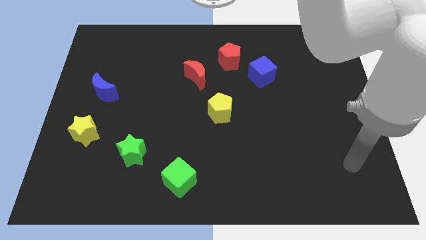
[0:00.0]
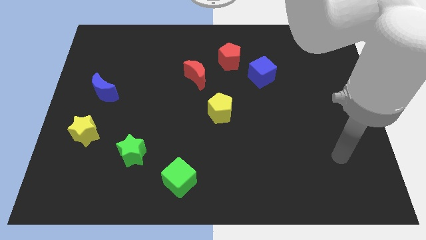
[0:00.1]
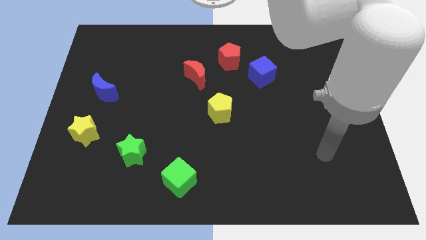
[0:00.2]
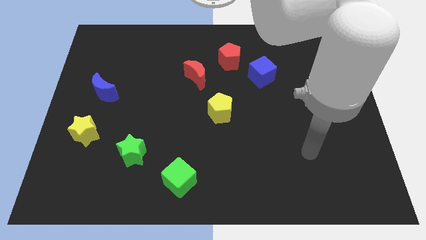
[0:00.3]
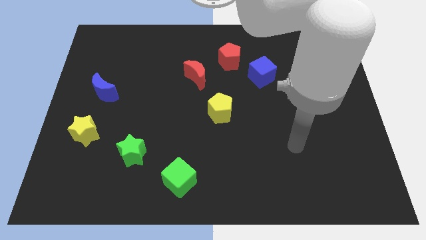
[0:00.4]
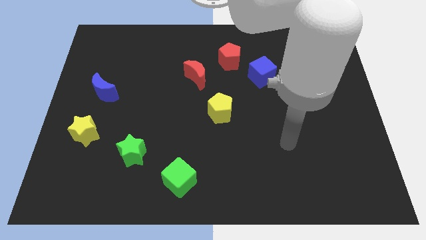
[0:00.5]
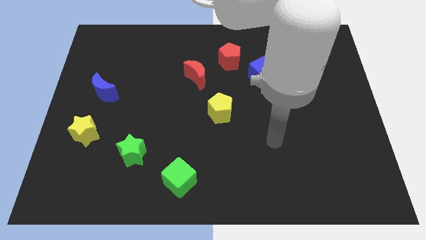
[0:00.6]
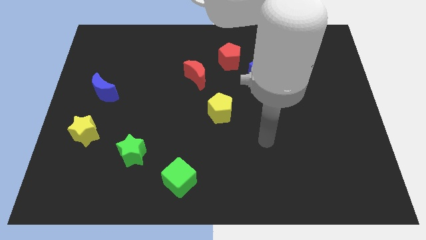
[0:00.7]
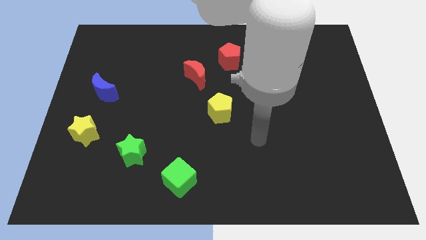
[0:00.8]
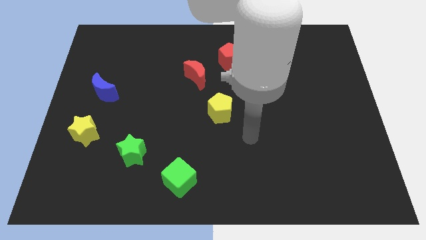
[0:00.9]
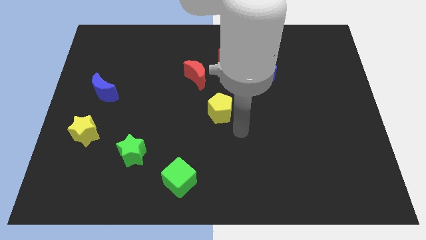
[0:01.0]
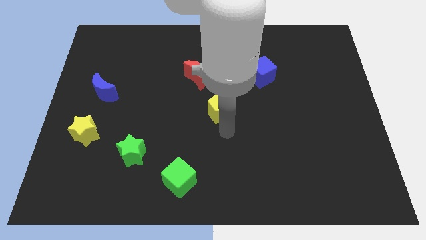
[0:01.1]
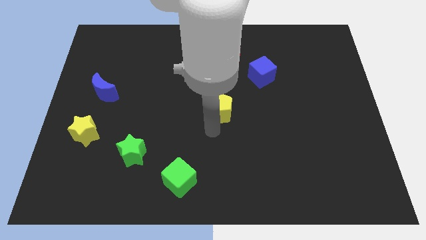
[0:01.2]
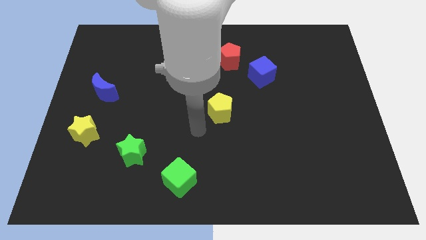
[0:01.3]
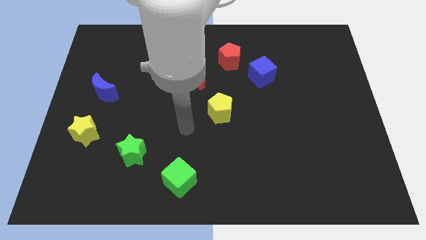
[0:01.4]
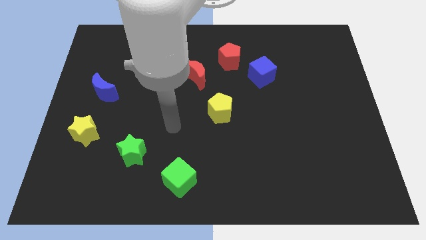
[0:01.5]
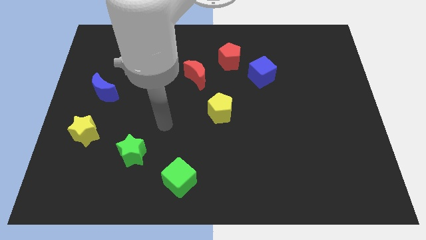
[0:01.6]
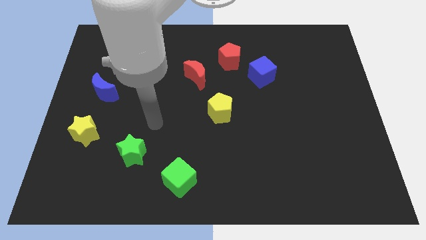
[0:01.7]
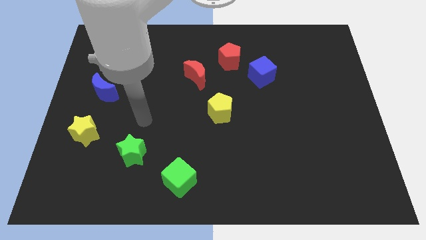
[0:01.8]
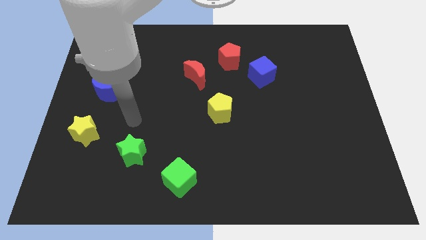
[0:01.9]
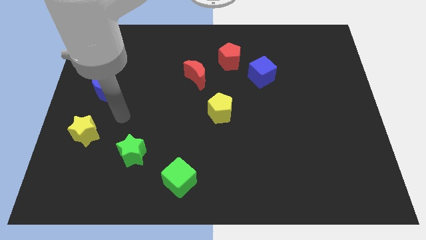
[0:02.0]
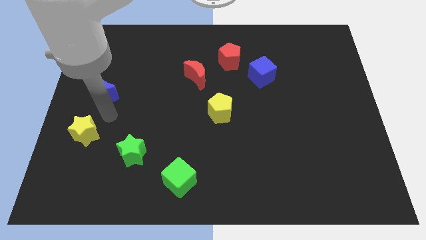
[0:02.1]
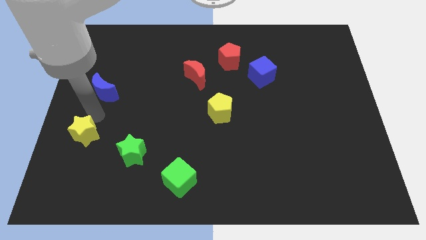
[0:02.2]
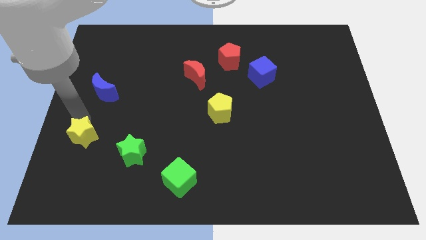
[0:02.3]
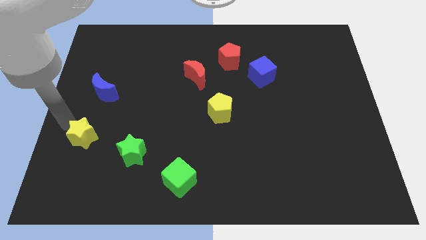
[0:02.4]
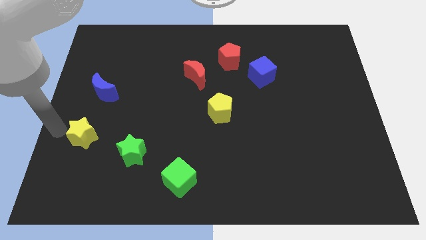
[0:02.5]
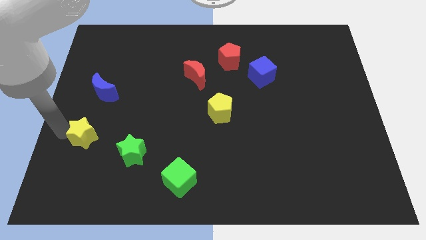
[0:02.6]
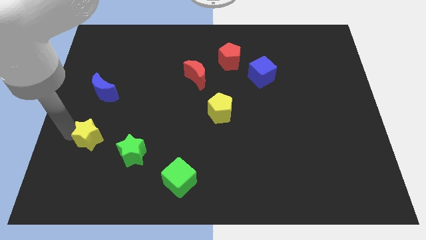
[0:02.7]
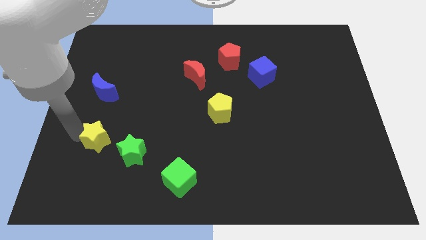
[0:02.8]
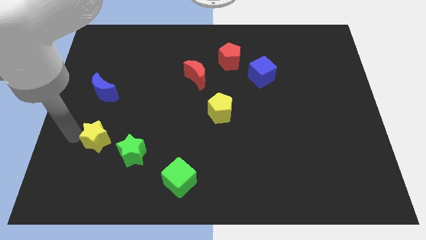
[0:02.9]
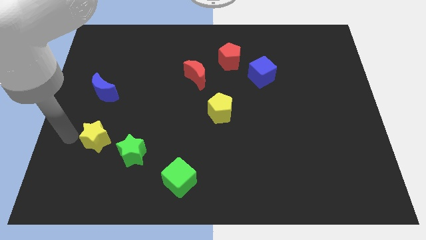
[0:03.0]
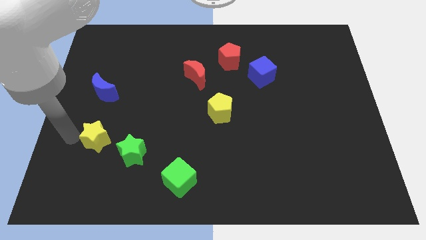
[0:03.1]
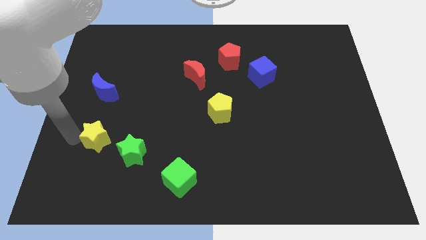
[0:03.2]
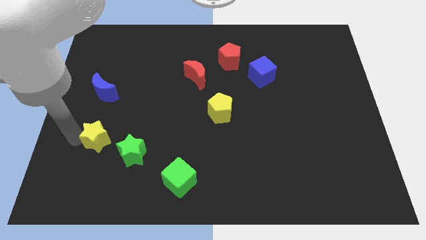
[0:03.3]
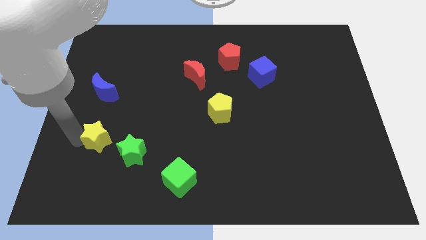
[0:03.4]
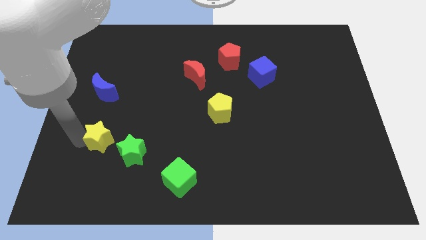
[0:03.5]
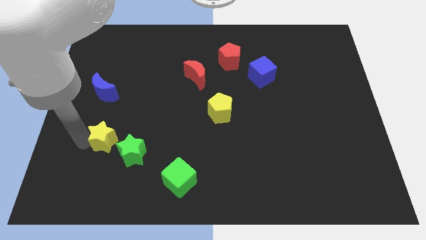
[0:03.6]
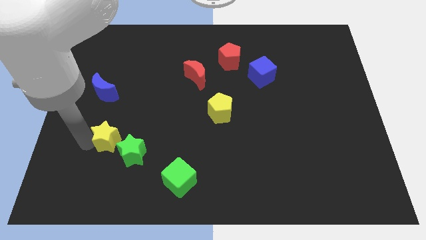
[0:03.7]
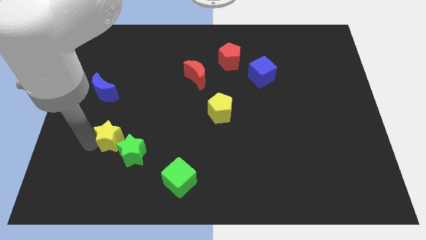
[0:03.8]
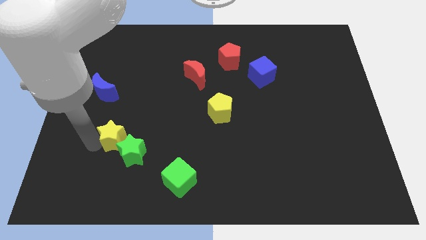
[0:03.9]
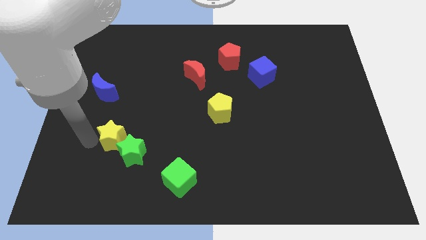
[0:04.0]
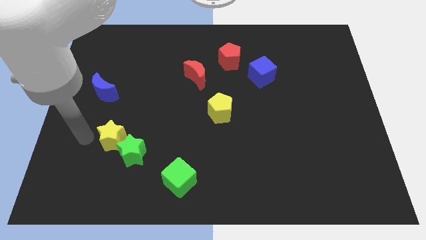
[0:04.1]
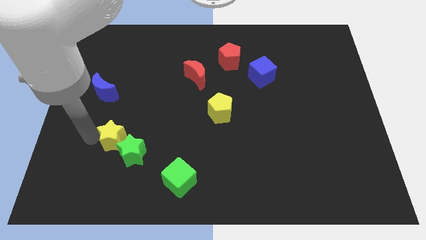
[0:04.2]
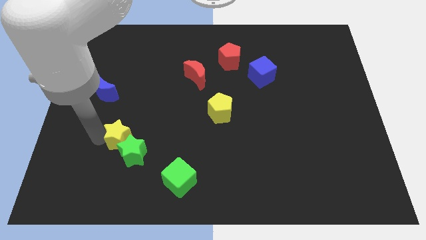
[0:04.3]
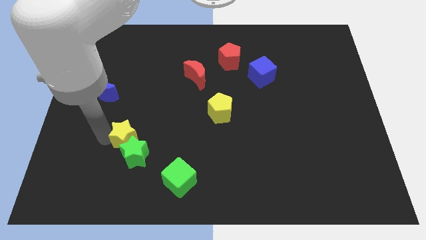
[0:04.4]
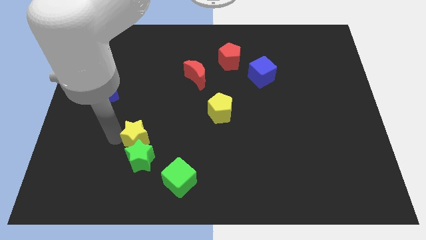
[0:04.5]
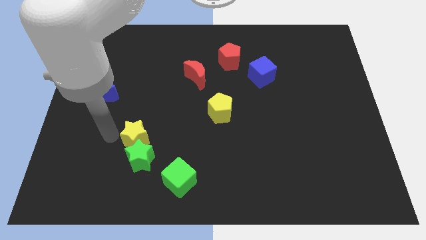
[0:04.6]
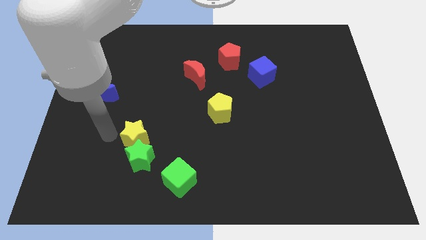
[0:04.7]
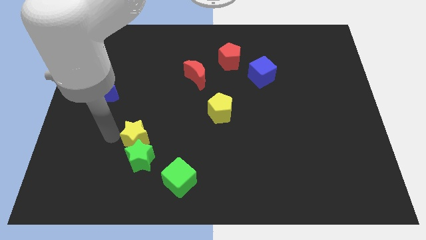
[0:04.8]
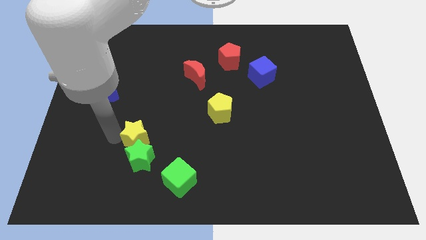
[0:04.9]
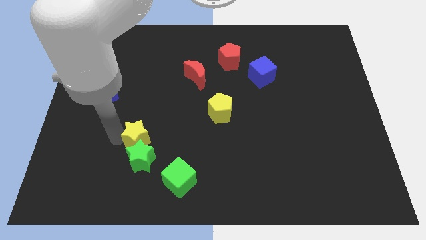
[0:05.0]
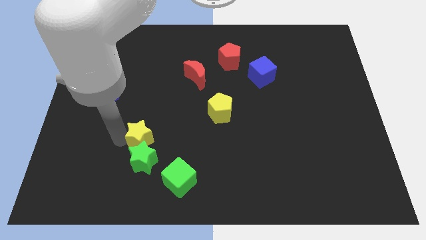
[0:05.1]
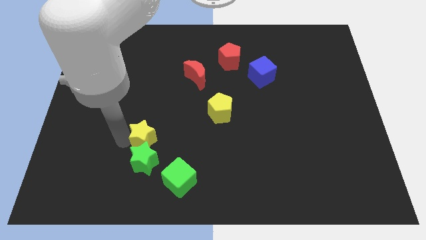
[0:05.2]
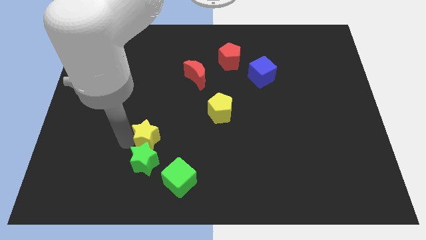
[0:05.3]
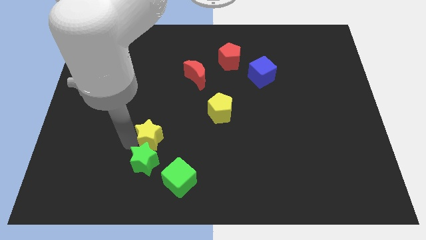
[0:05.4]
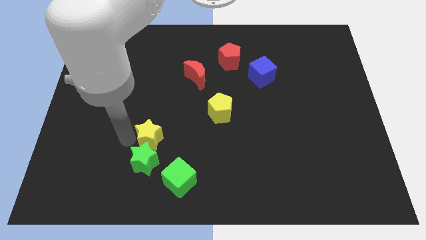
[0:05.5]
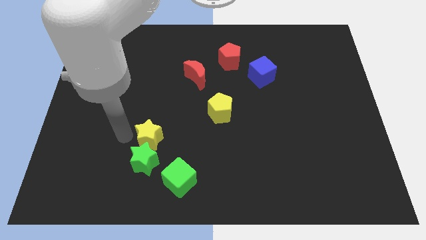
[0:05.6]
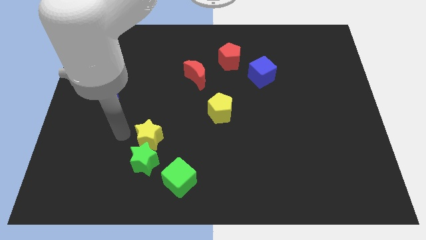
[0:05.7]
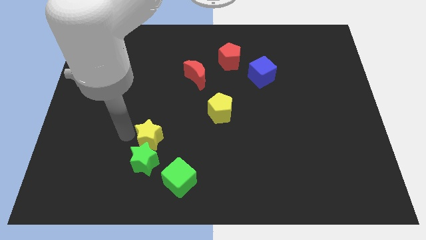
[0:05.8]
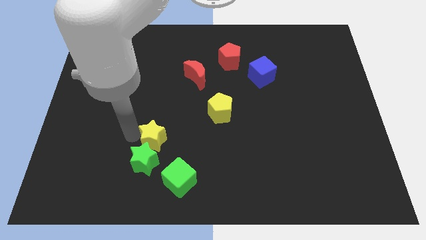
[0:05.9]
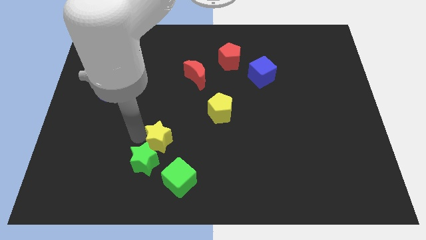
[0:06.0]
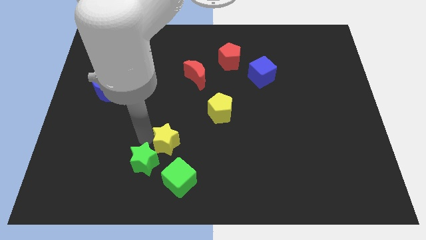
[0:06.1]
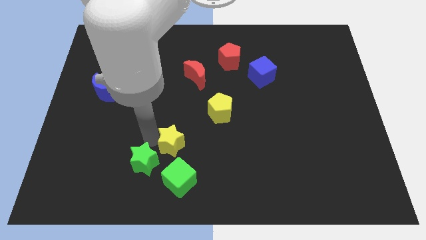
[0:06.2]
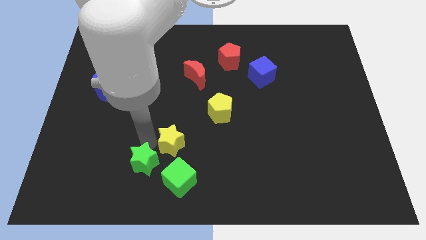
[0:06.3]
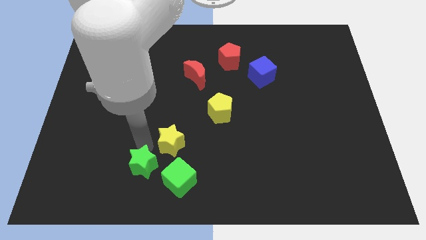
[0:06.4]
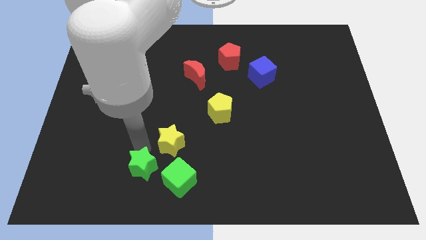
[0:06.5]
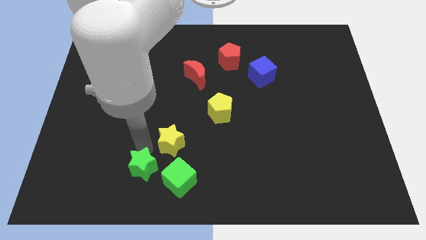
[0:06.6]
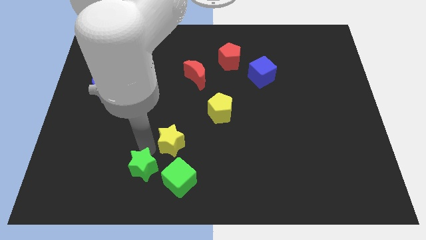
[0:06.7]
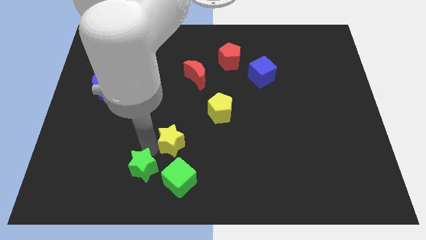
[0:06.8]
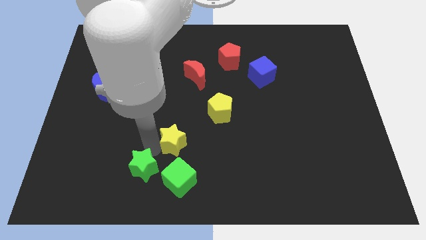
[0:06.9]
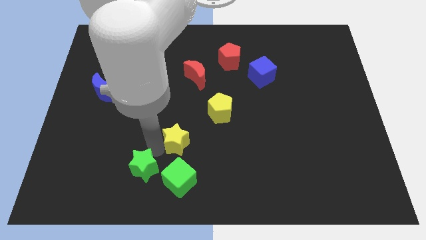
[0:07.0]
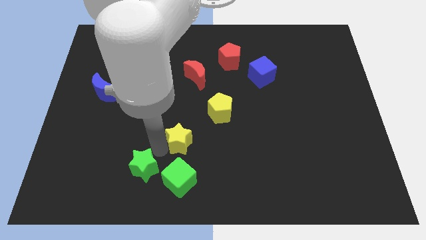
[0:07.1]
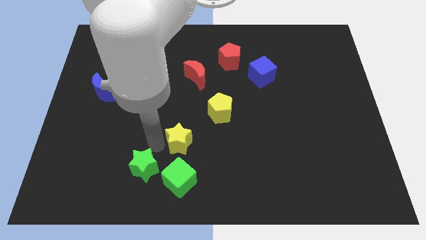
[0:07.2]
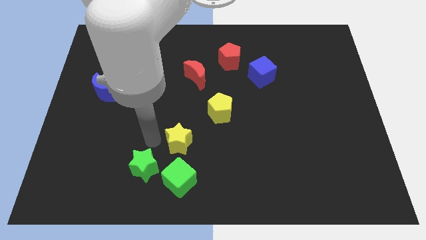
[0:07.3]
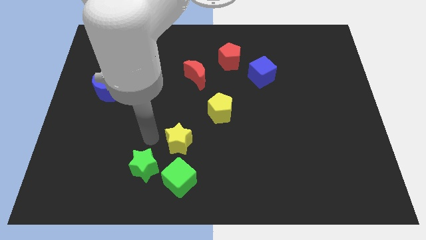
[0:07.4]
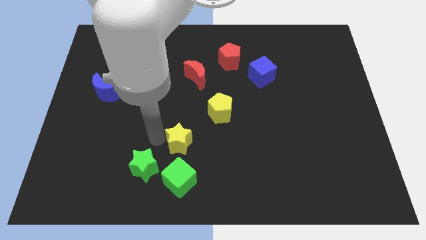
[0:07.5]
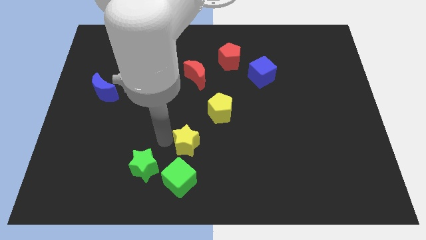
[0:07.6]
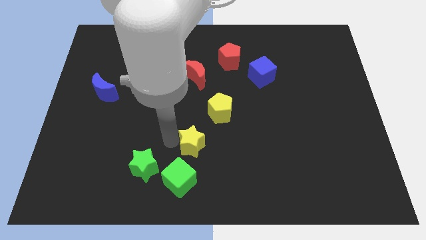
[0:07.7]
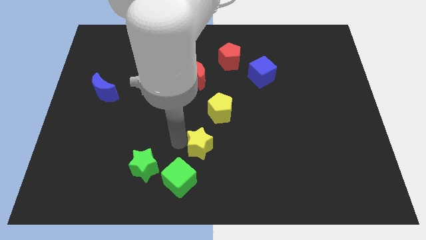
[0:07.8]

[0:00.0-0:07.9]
push the yellow star to the bottom of the yellow pentagon
